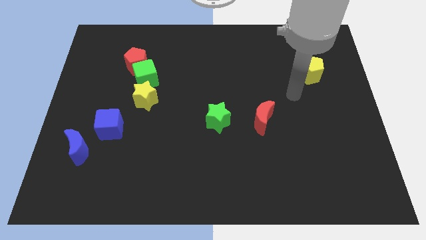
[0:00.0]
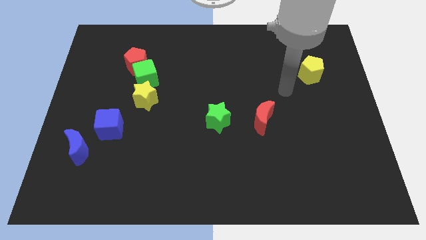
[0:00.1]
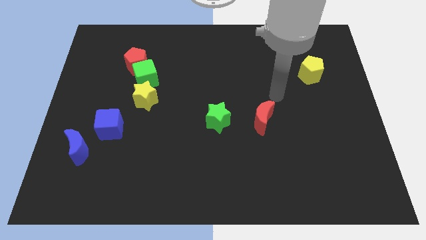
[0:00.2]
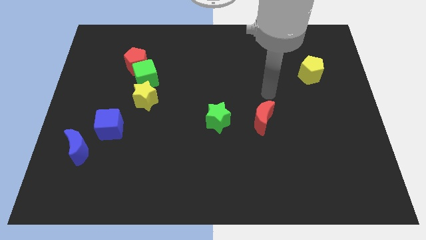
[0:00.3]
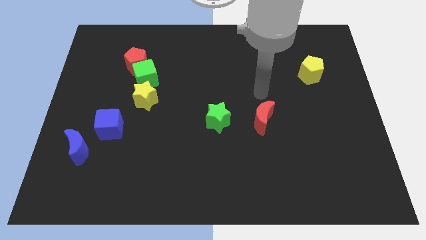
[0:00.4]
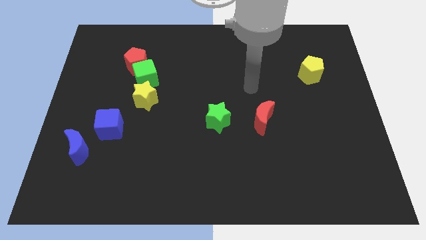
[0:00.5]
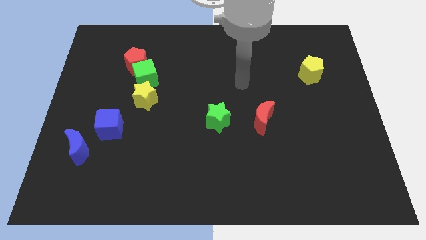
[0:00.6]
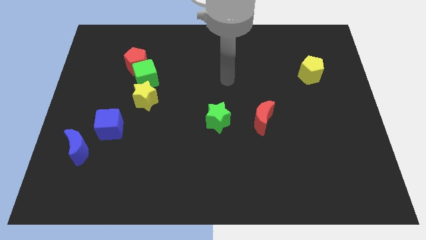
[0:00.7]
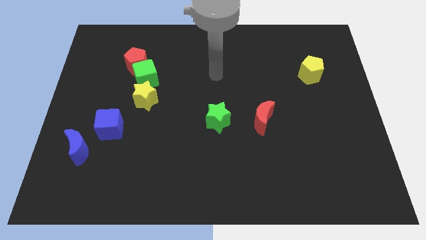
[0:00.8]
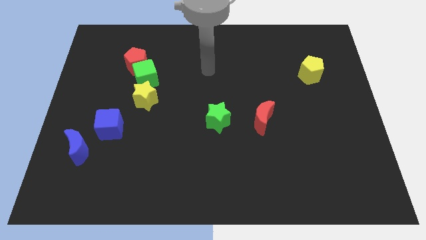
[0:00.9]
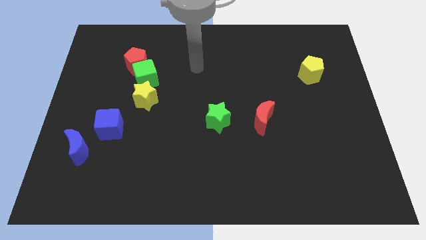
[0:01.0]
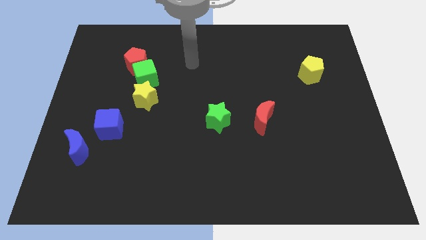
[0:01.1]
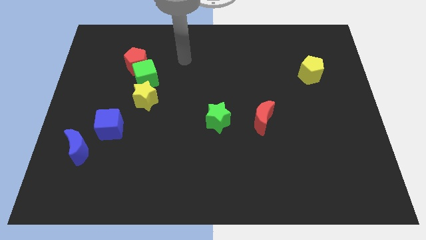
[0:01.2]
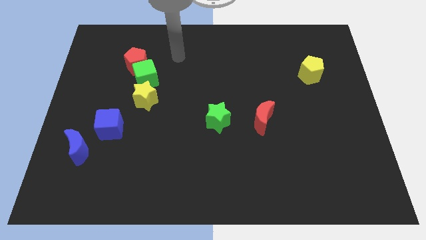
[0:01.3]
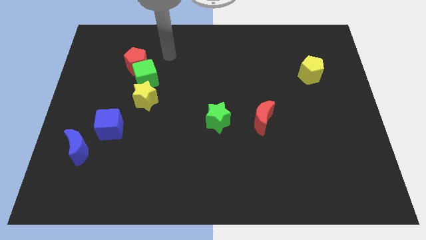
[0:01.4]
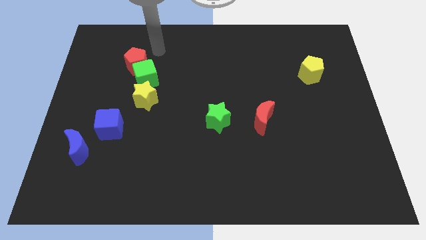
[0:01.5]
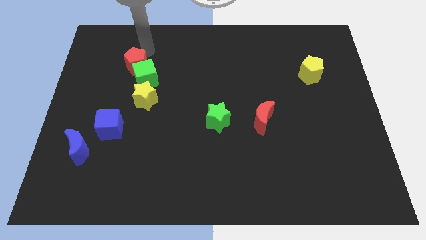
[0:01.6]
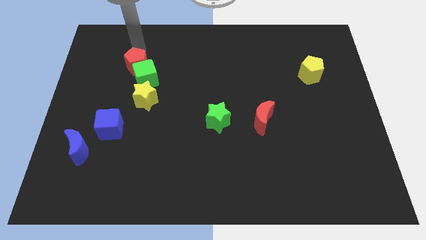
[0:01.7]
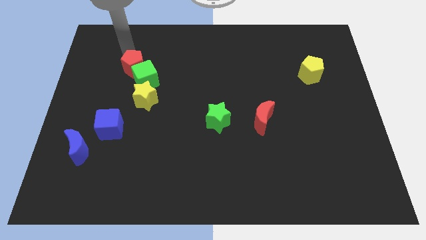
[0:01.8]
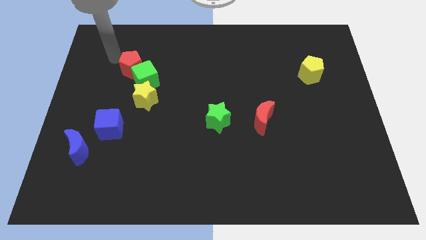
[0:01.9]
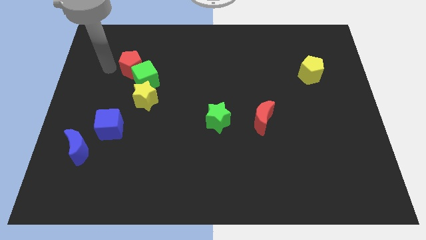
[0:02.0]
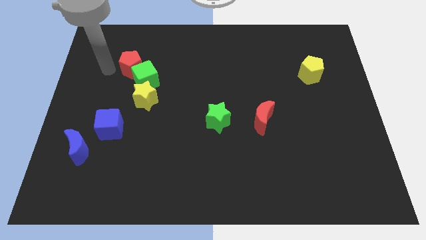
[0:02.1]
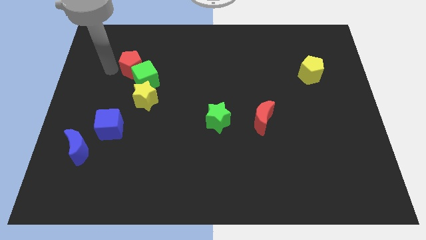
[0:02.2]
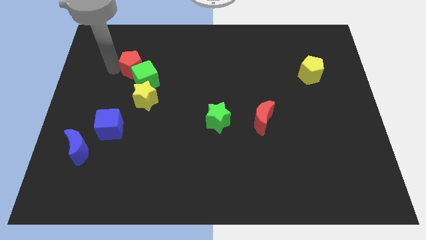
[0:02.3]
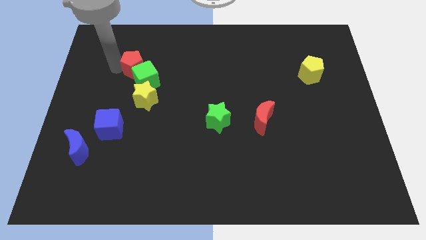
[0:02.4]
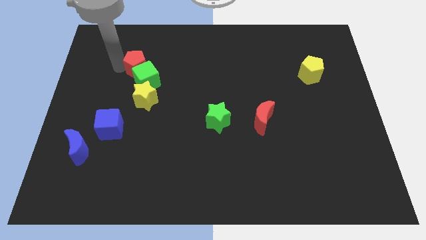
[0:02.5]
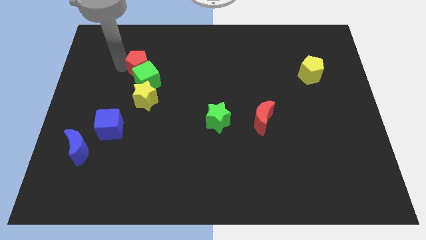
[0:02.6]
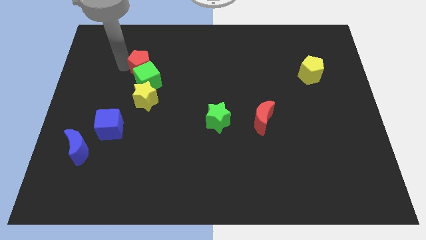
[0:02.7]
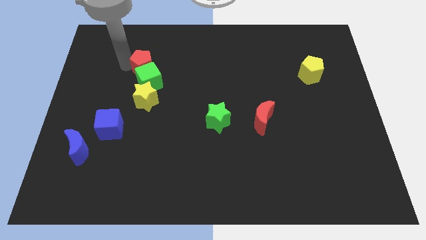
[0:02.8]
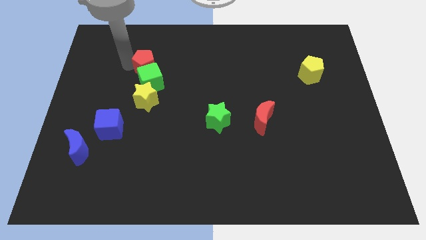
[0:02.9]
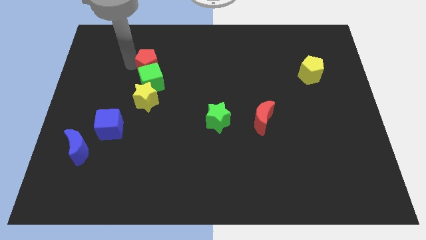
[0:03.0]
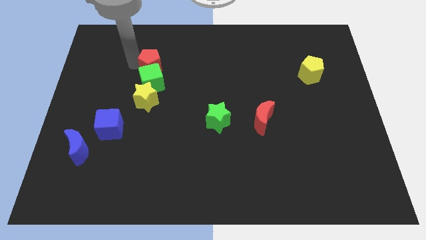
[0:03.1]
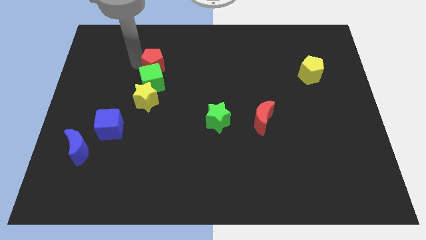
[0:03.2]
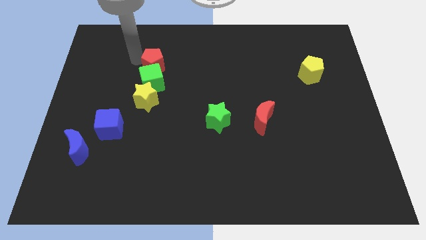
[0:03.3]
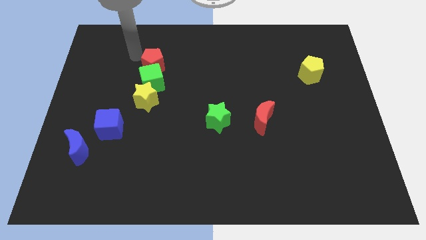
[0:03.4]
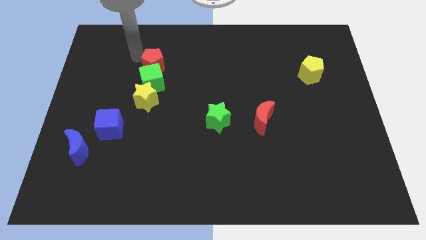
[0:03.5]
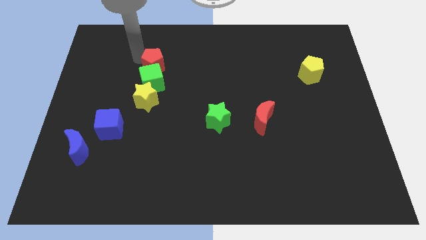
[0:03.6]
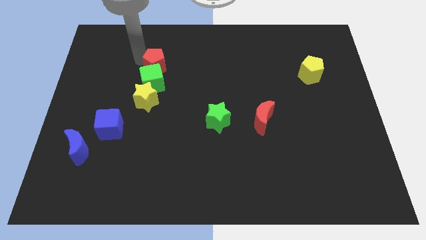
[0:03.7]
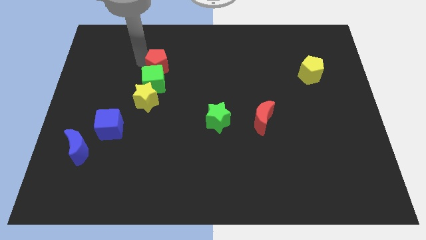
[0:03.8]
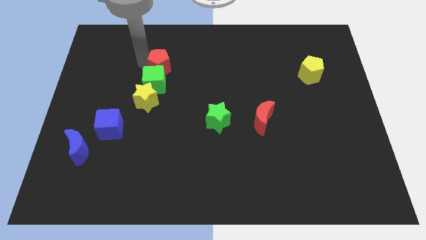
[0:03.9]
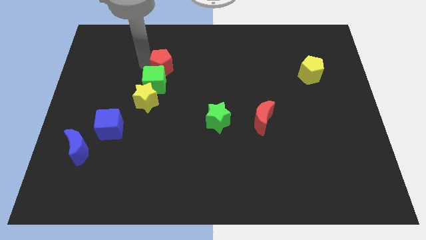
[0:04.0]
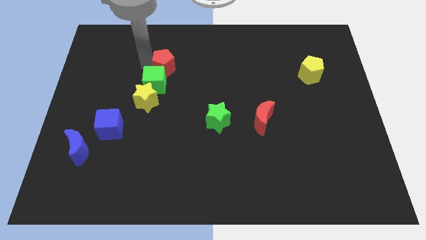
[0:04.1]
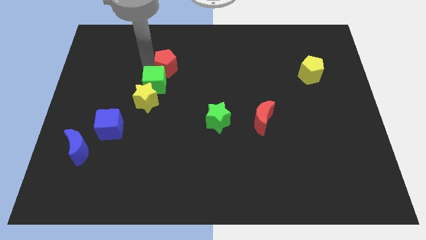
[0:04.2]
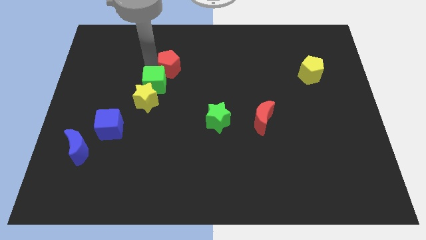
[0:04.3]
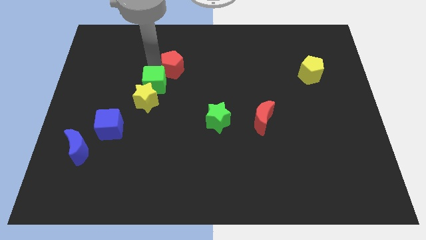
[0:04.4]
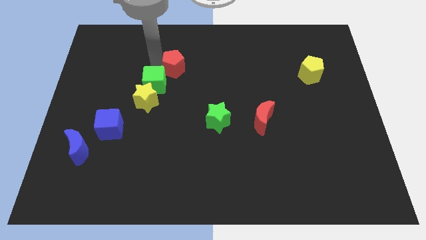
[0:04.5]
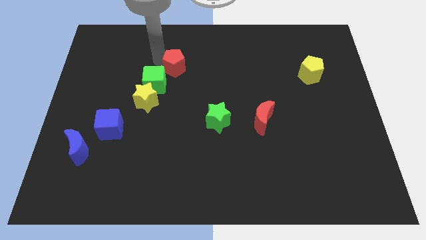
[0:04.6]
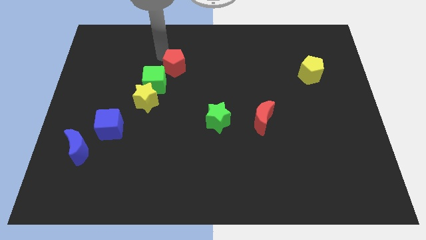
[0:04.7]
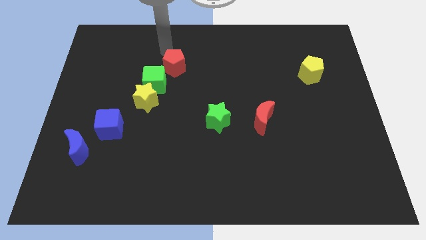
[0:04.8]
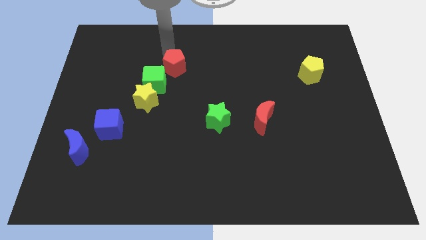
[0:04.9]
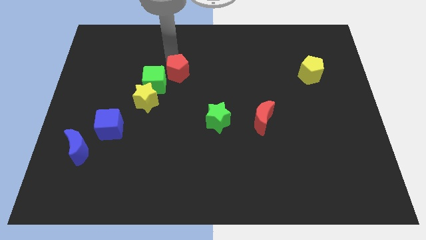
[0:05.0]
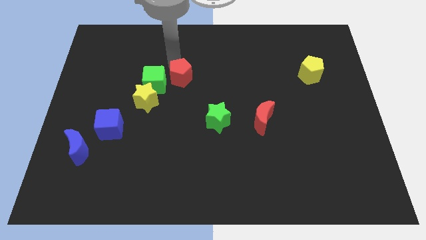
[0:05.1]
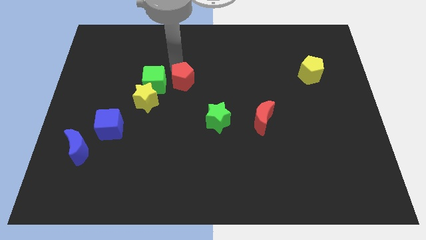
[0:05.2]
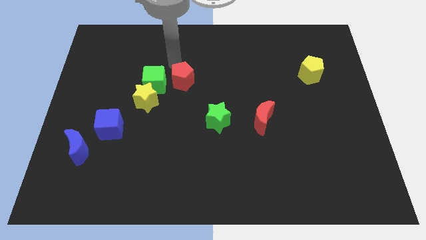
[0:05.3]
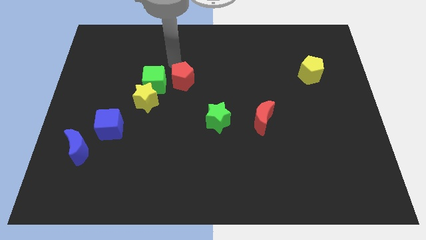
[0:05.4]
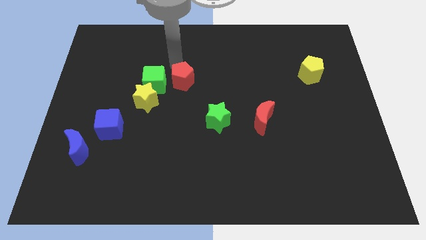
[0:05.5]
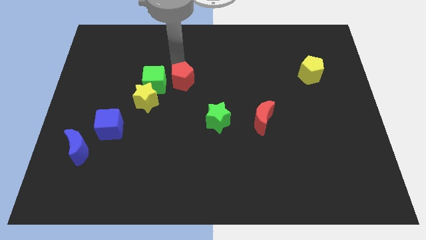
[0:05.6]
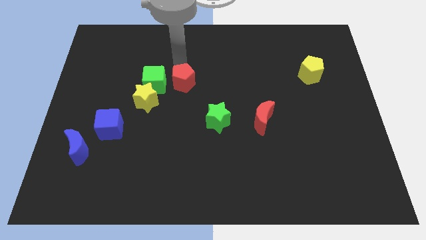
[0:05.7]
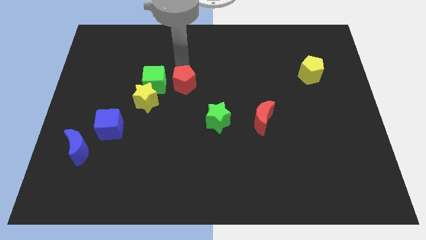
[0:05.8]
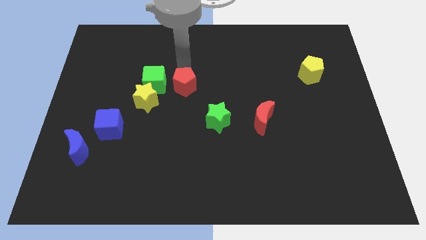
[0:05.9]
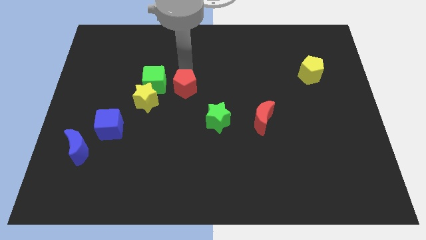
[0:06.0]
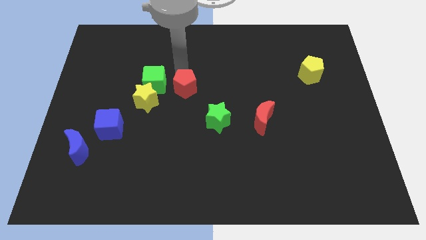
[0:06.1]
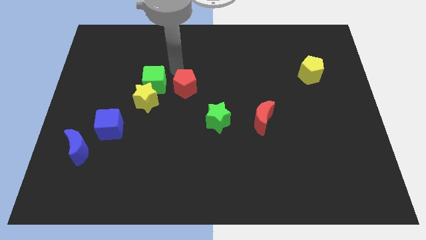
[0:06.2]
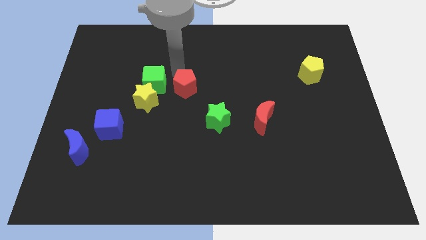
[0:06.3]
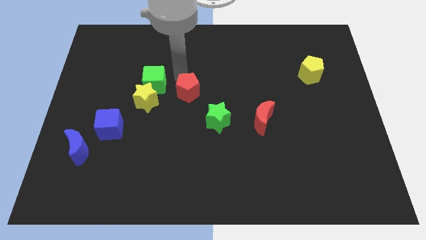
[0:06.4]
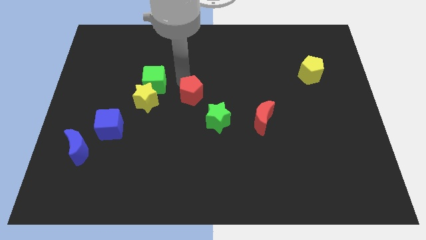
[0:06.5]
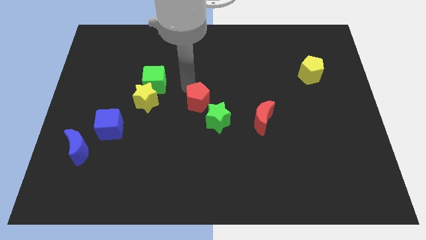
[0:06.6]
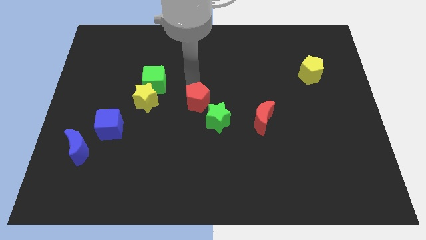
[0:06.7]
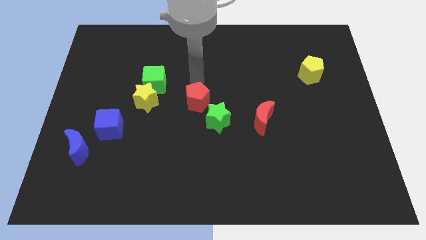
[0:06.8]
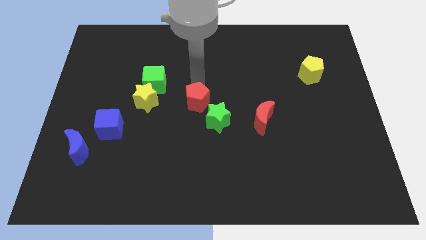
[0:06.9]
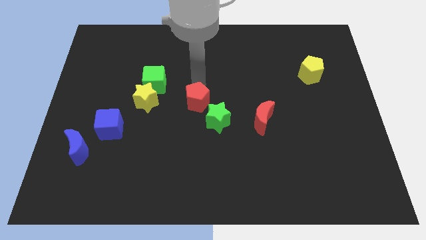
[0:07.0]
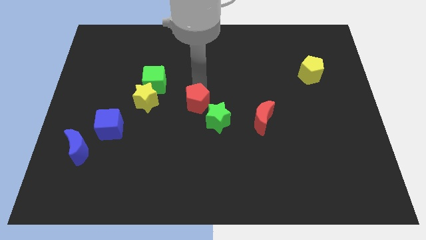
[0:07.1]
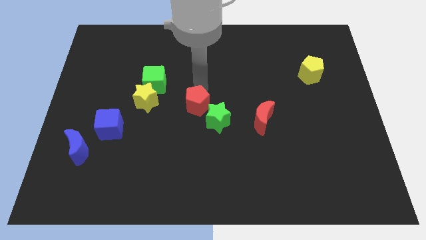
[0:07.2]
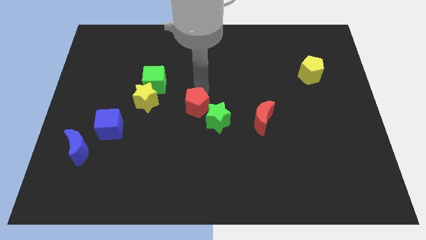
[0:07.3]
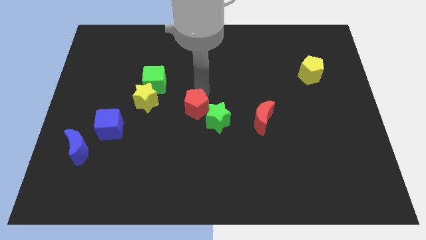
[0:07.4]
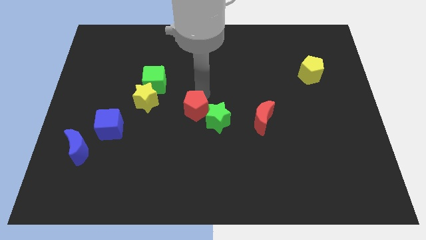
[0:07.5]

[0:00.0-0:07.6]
move the red pentagon to the left side of the red moon
